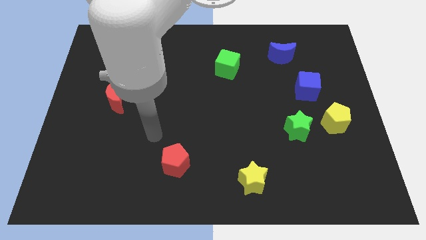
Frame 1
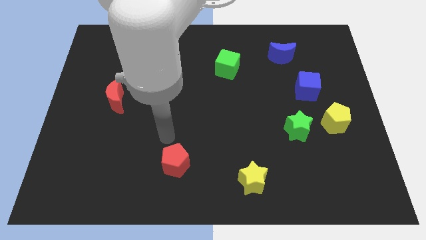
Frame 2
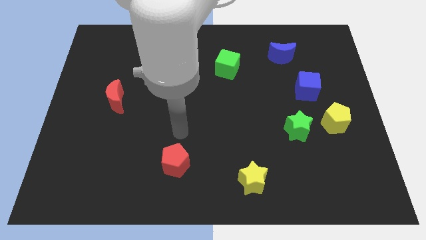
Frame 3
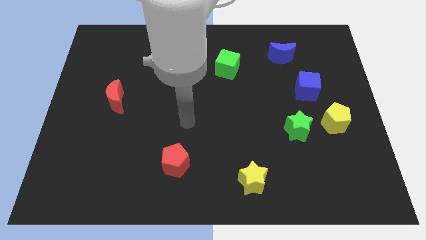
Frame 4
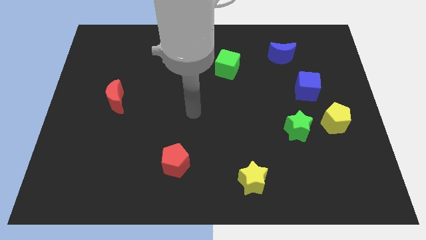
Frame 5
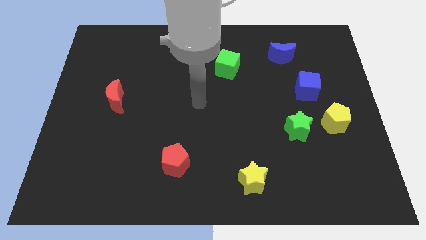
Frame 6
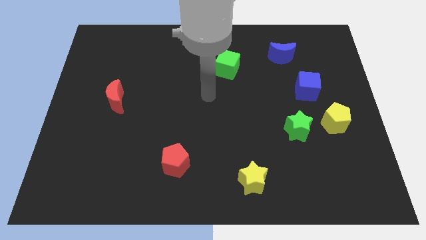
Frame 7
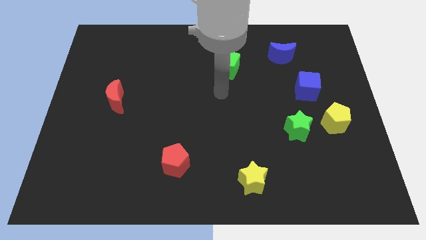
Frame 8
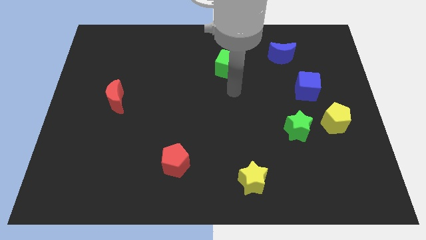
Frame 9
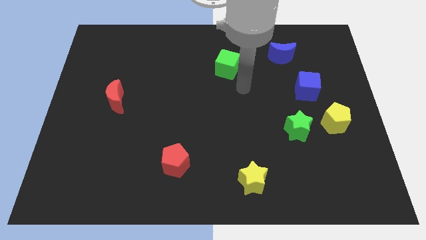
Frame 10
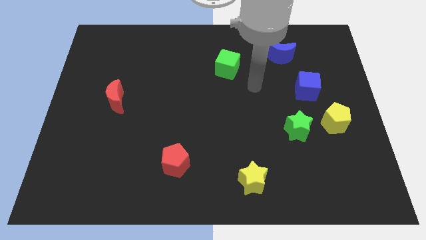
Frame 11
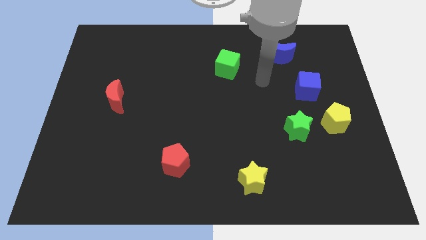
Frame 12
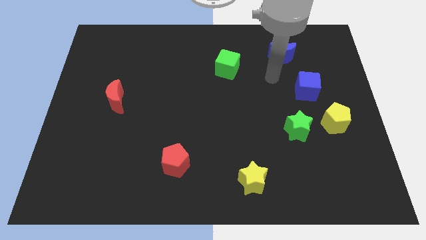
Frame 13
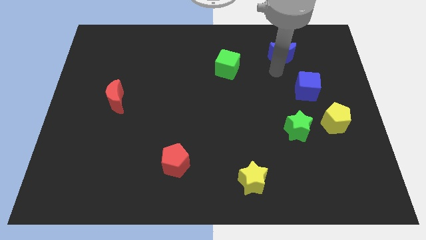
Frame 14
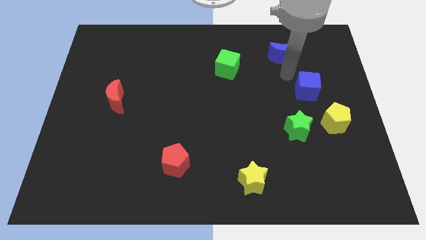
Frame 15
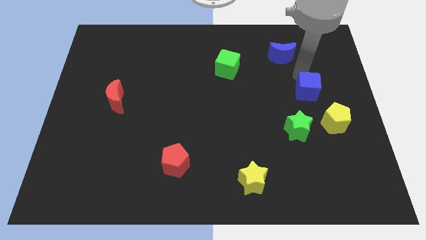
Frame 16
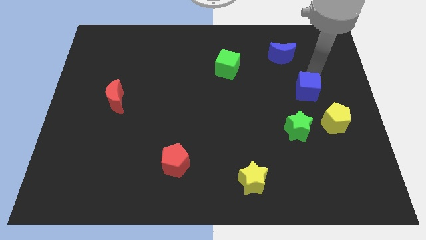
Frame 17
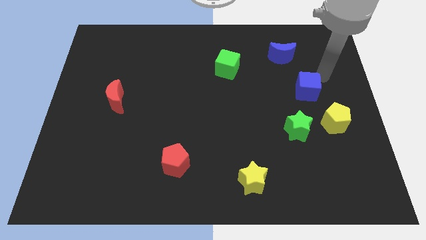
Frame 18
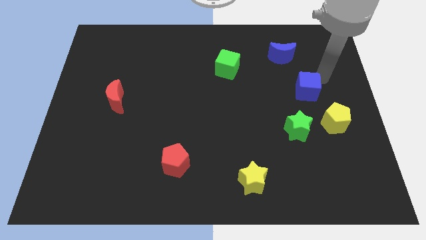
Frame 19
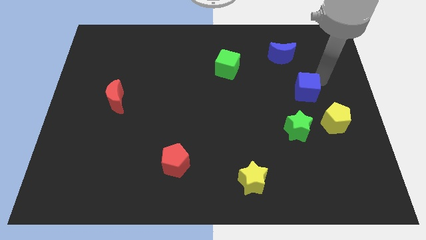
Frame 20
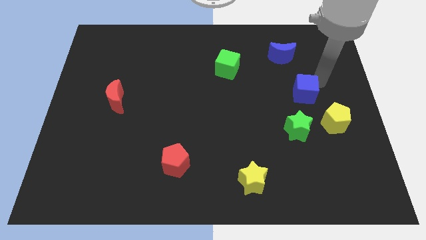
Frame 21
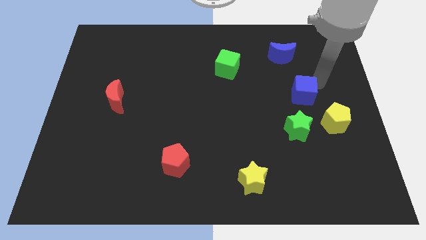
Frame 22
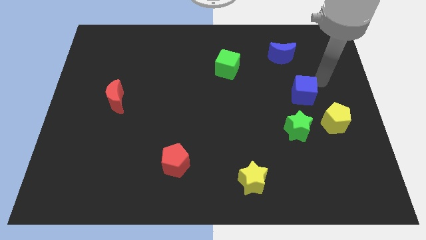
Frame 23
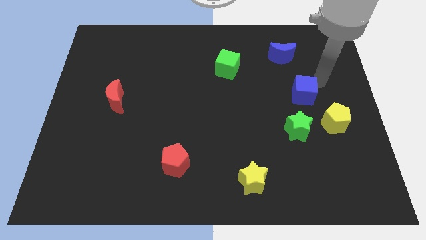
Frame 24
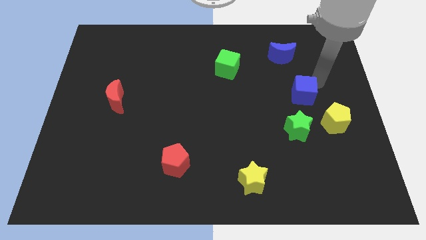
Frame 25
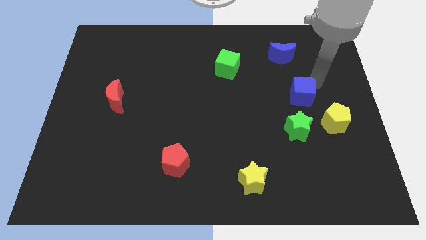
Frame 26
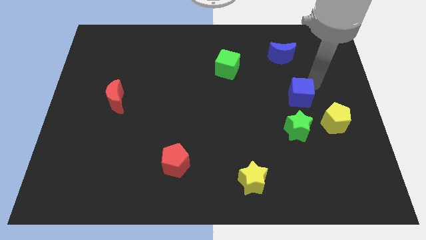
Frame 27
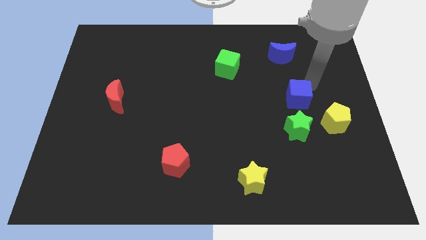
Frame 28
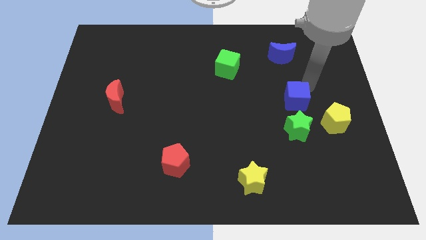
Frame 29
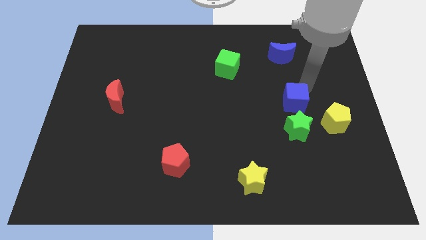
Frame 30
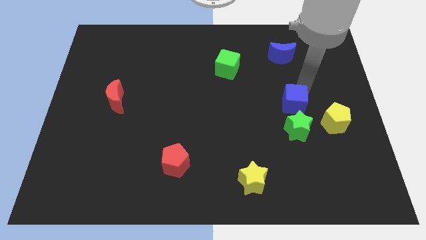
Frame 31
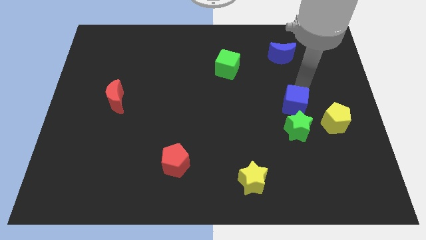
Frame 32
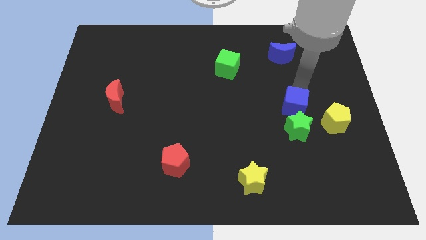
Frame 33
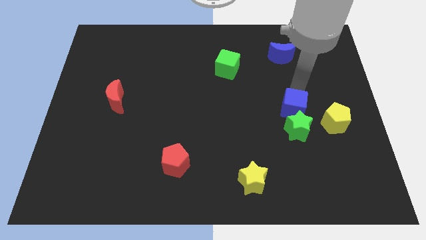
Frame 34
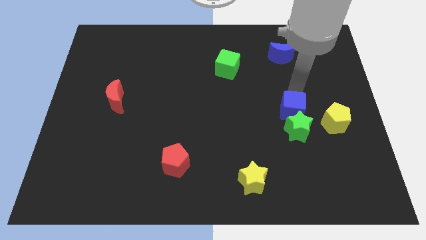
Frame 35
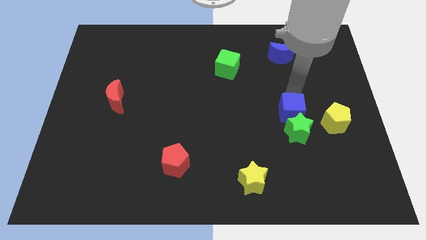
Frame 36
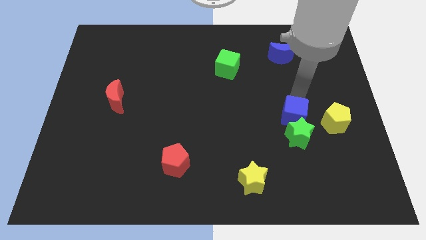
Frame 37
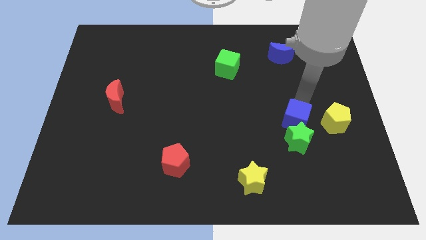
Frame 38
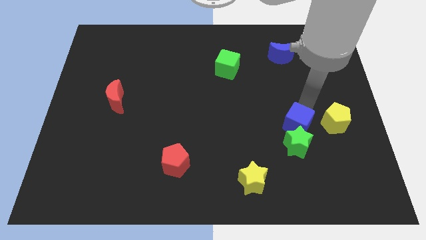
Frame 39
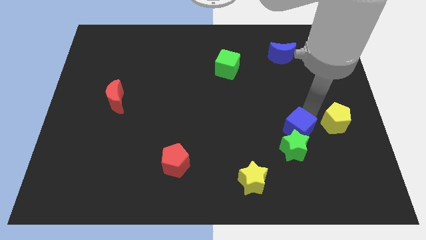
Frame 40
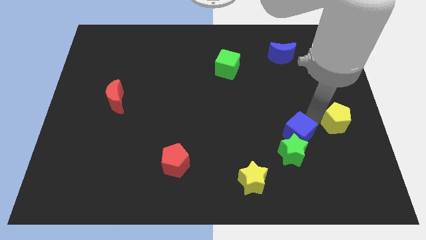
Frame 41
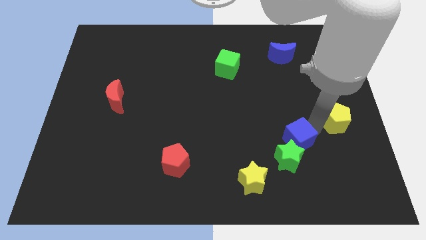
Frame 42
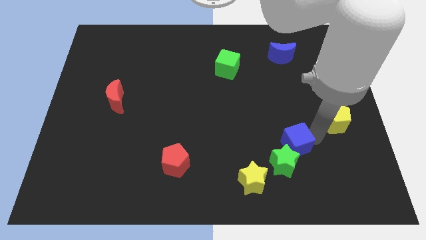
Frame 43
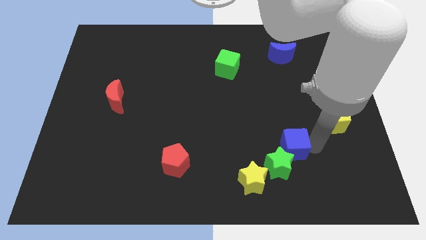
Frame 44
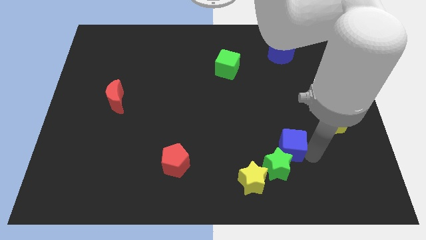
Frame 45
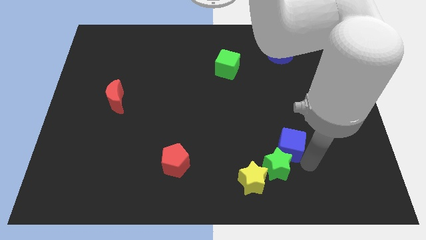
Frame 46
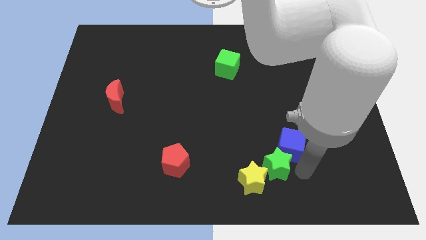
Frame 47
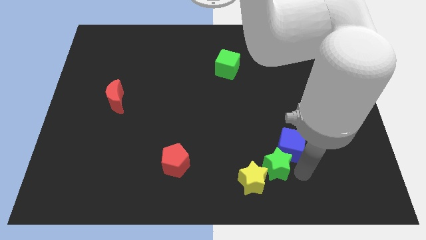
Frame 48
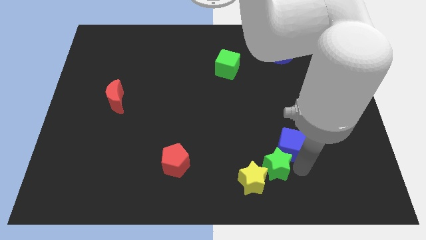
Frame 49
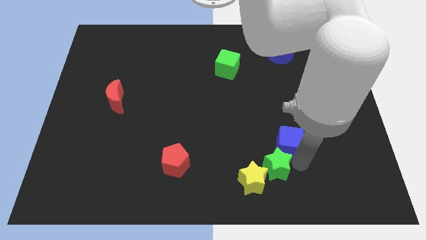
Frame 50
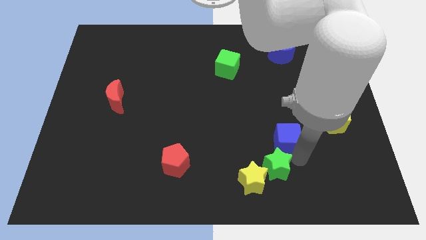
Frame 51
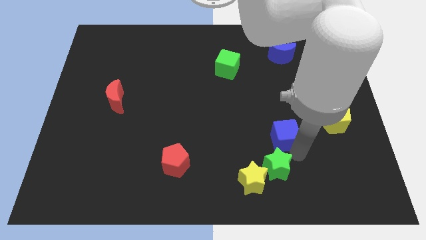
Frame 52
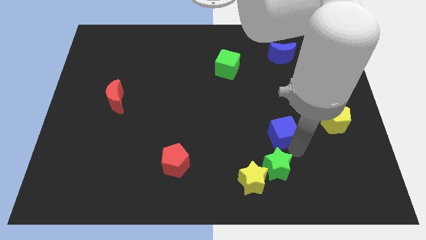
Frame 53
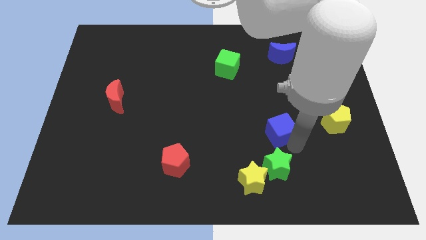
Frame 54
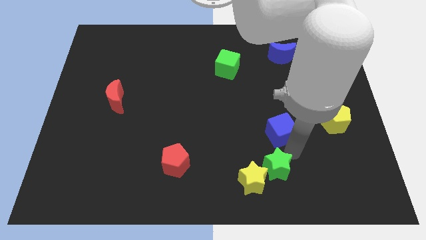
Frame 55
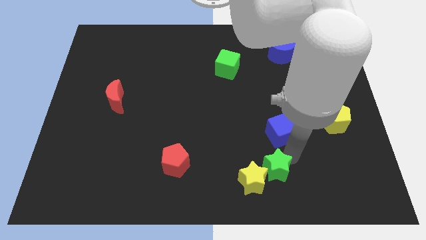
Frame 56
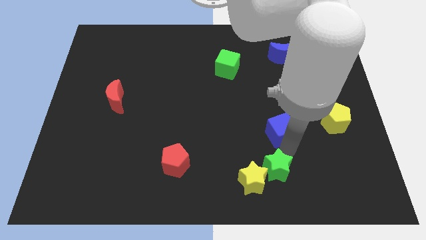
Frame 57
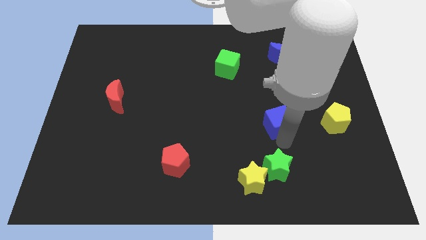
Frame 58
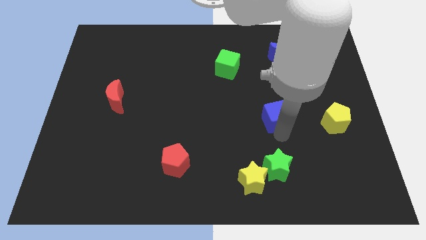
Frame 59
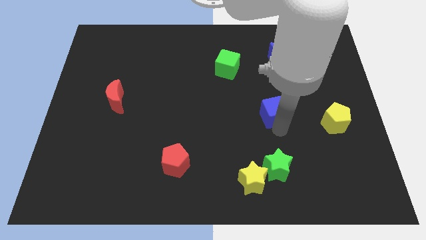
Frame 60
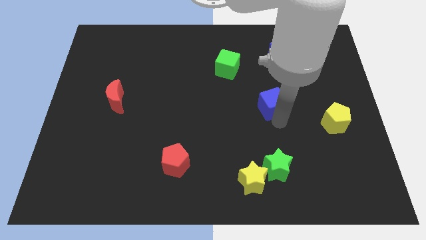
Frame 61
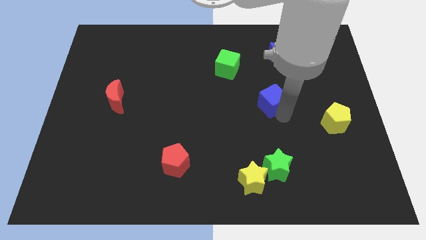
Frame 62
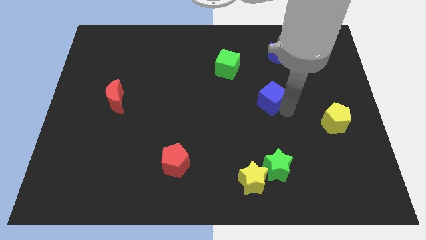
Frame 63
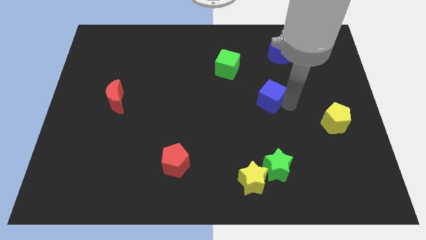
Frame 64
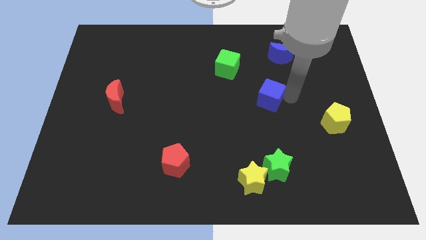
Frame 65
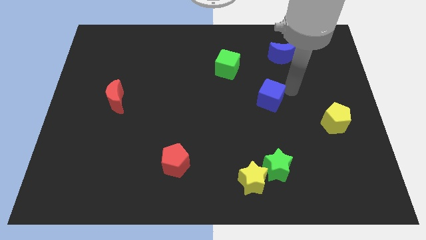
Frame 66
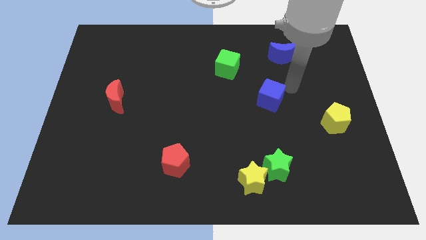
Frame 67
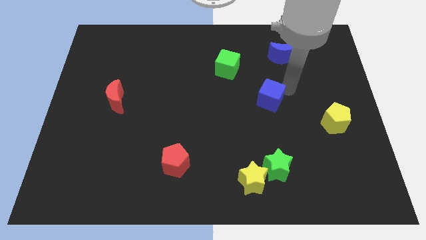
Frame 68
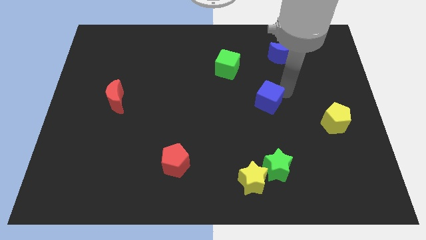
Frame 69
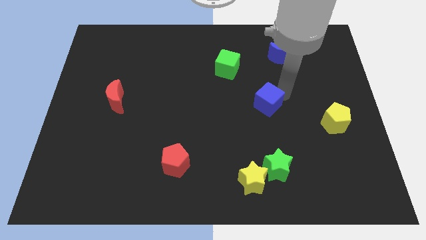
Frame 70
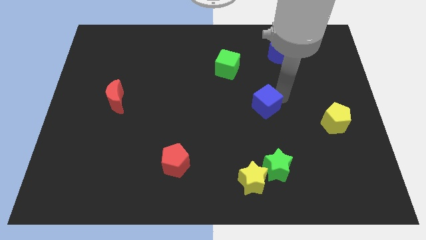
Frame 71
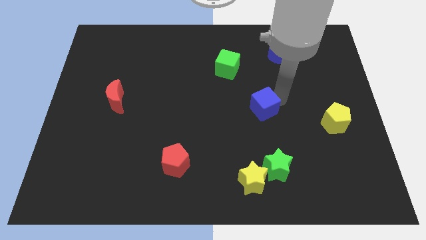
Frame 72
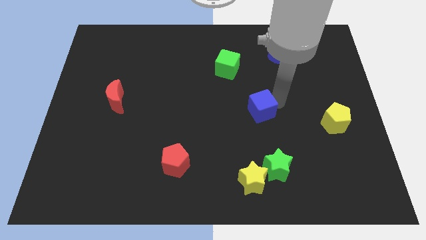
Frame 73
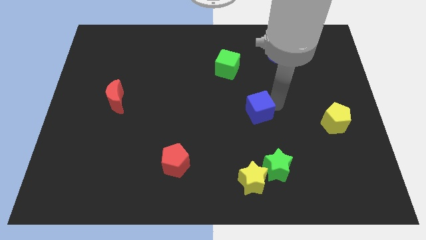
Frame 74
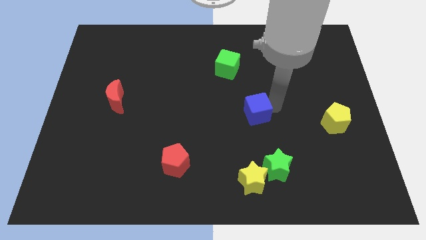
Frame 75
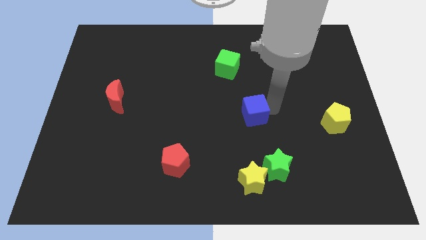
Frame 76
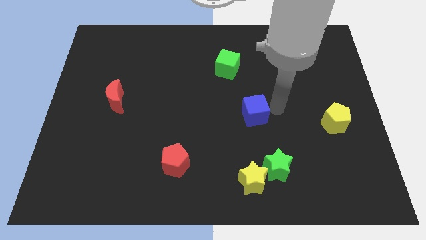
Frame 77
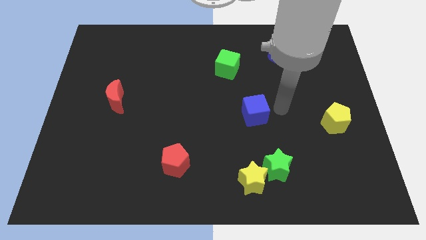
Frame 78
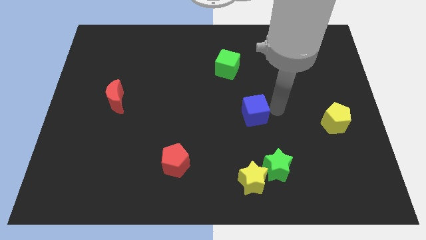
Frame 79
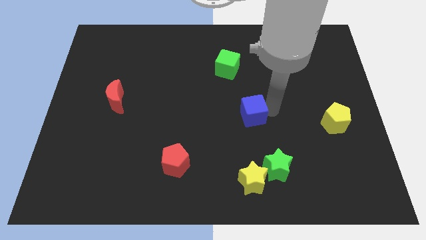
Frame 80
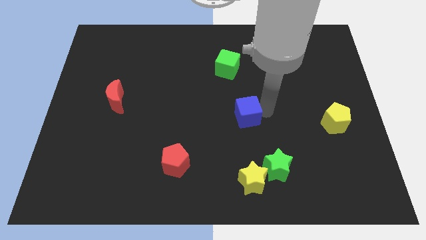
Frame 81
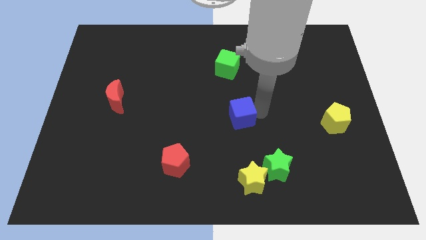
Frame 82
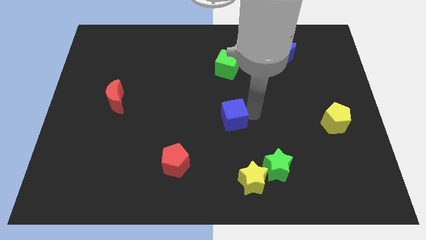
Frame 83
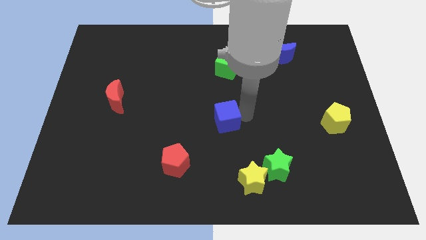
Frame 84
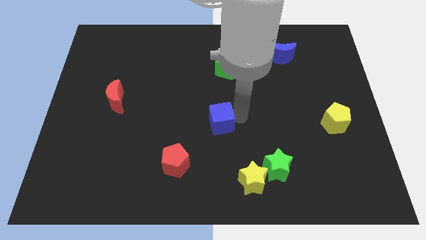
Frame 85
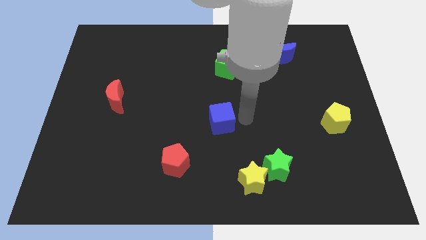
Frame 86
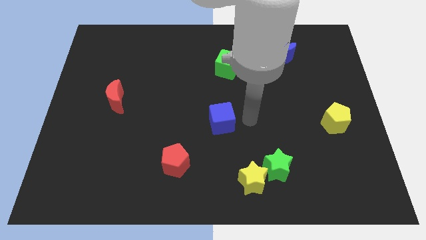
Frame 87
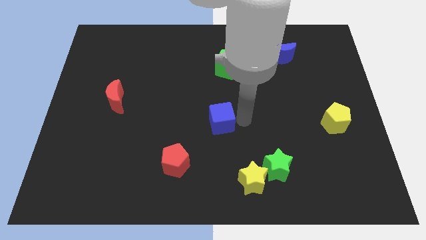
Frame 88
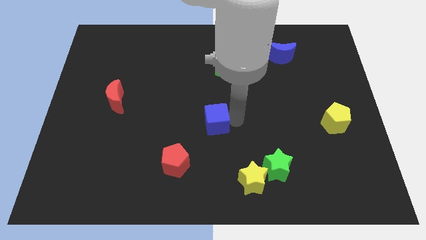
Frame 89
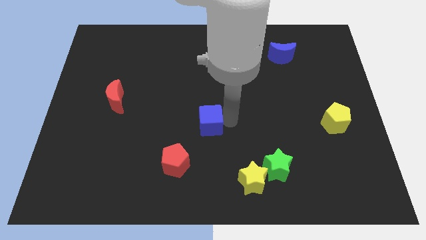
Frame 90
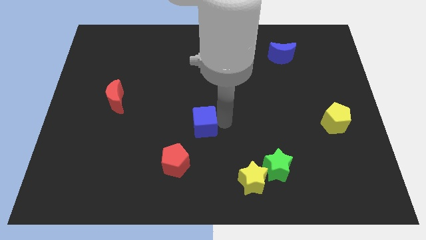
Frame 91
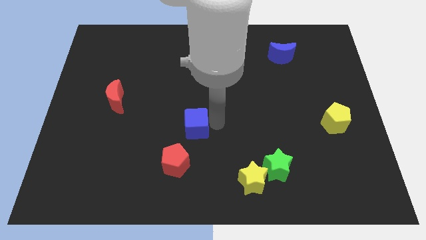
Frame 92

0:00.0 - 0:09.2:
move the blue cube above the red pentagon
